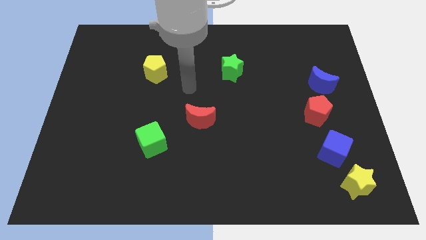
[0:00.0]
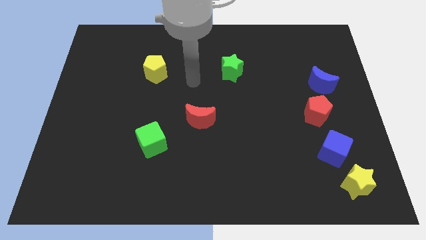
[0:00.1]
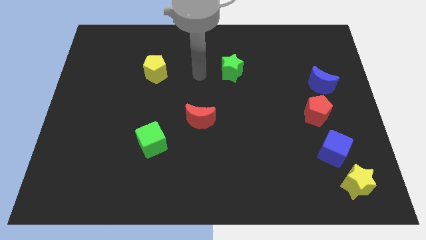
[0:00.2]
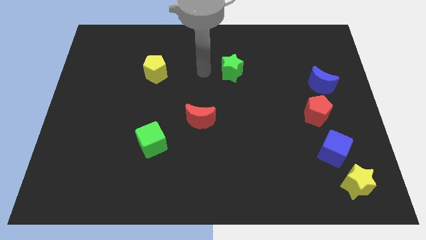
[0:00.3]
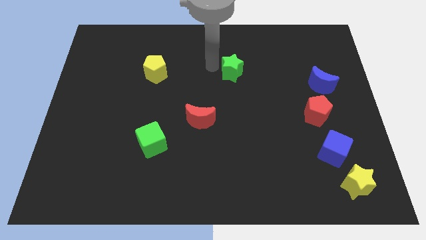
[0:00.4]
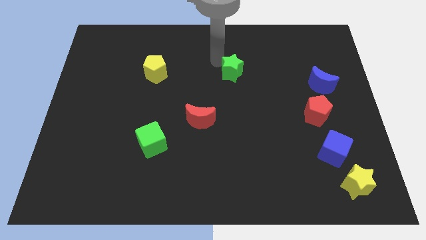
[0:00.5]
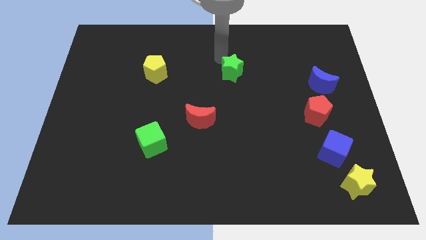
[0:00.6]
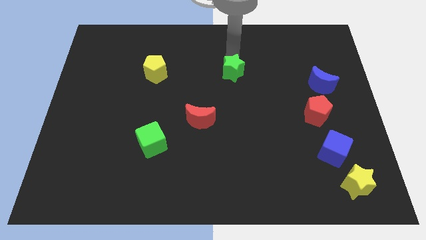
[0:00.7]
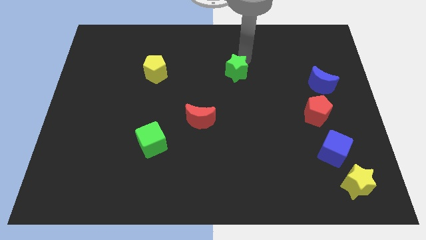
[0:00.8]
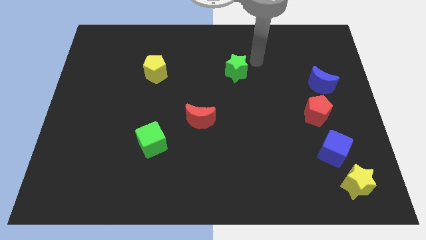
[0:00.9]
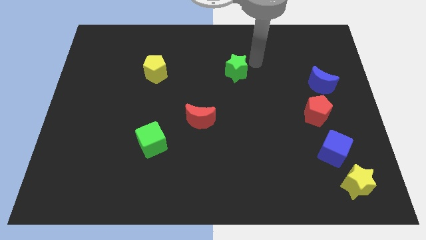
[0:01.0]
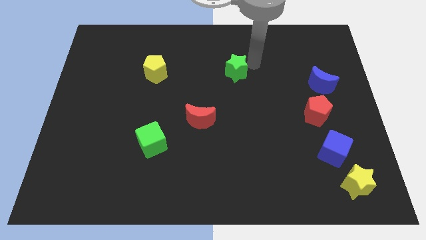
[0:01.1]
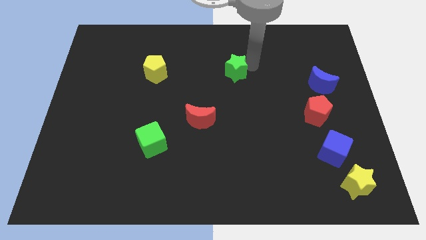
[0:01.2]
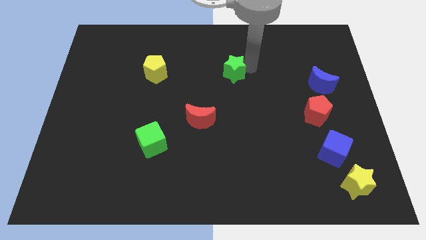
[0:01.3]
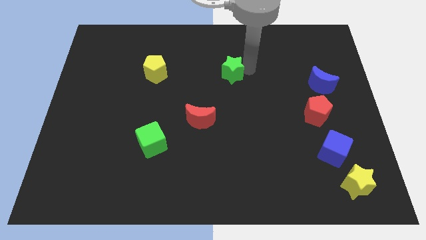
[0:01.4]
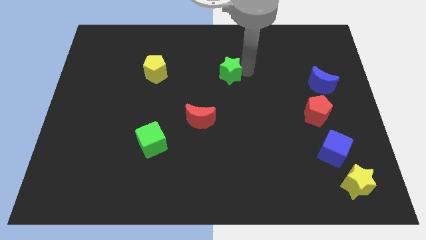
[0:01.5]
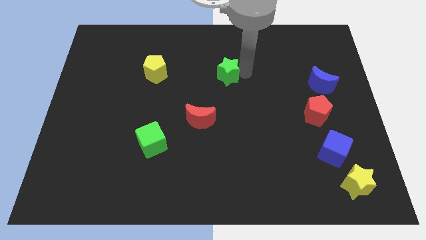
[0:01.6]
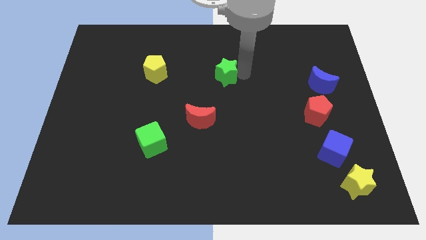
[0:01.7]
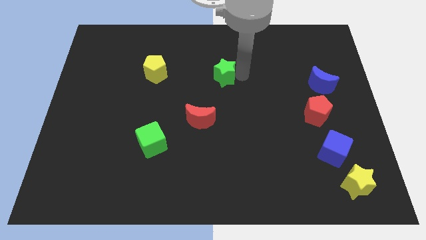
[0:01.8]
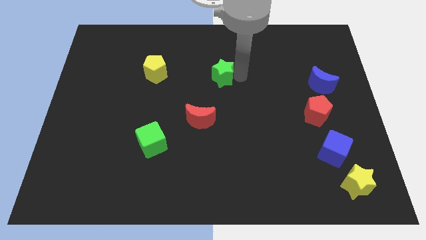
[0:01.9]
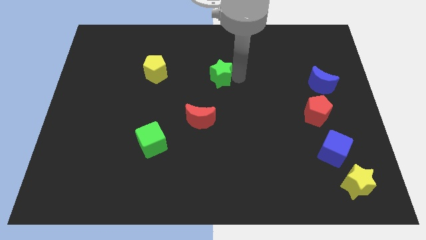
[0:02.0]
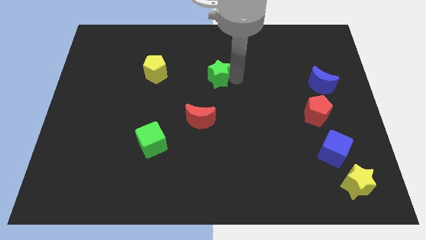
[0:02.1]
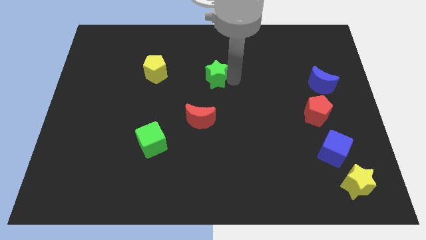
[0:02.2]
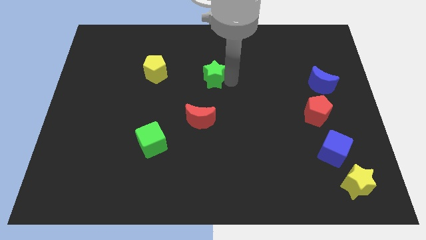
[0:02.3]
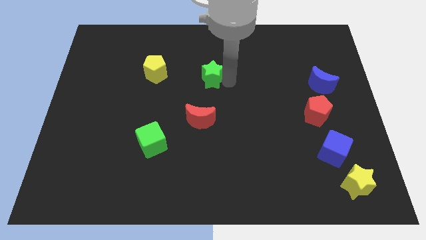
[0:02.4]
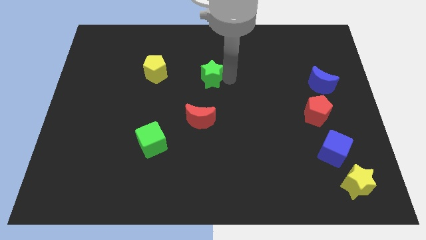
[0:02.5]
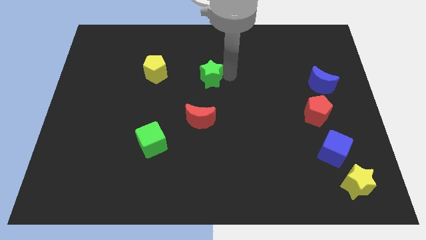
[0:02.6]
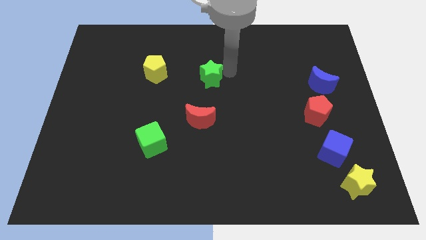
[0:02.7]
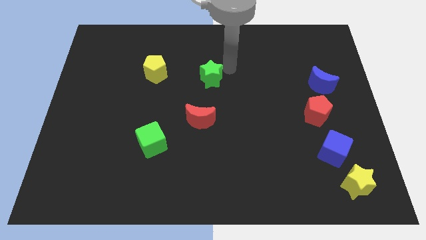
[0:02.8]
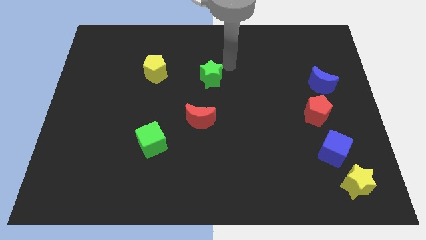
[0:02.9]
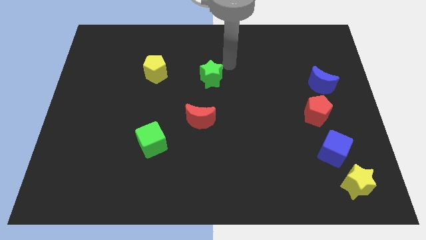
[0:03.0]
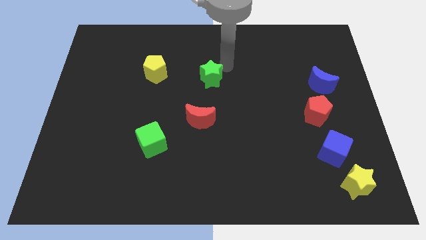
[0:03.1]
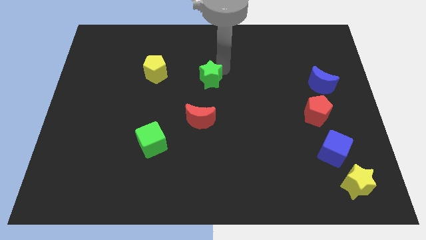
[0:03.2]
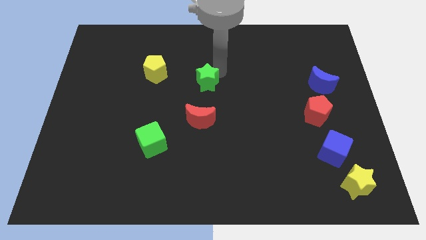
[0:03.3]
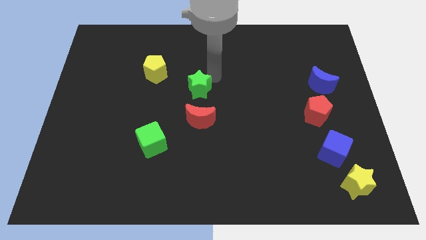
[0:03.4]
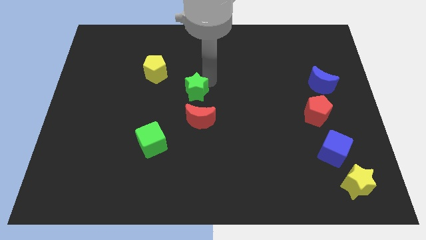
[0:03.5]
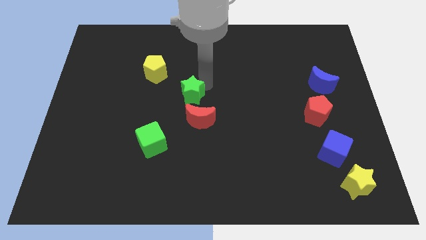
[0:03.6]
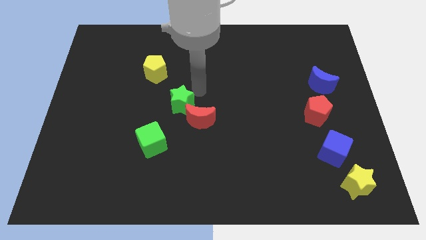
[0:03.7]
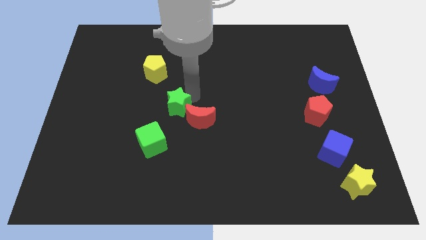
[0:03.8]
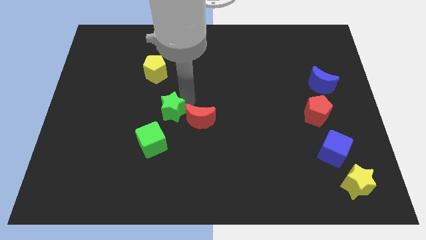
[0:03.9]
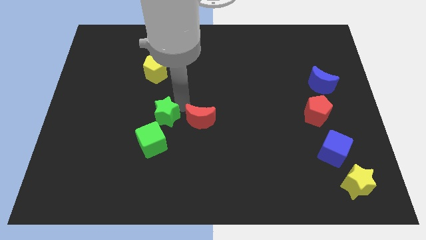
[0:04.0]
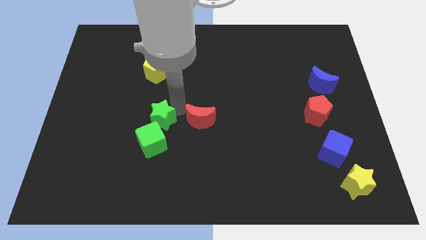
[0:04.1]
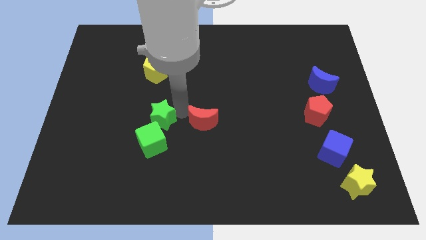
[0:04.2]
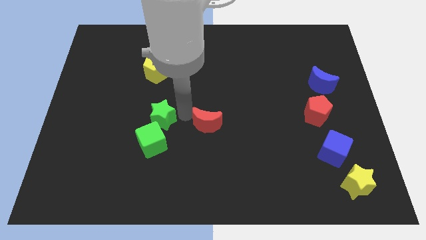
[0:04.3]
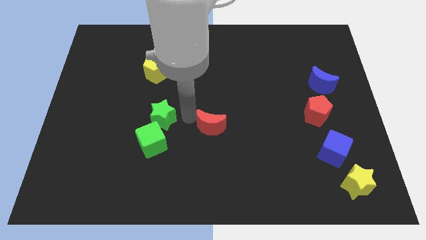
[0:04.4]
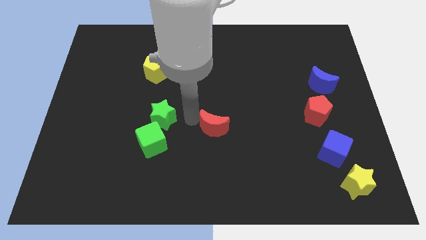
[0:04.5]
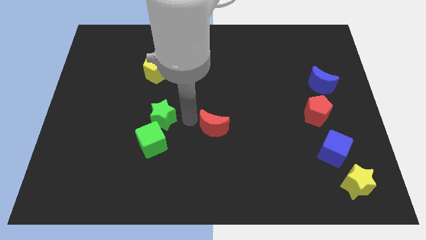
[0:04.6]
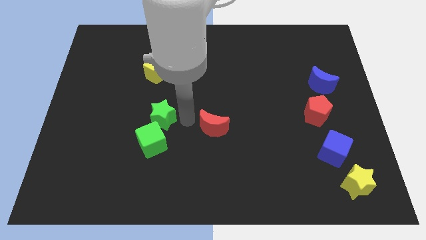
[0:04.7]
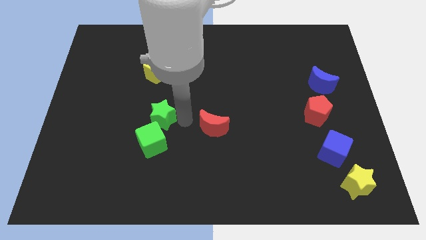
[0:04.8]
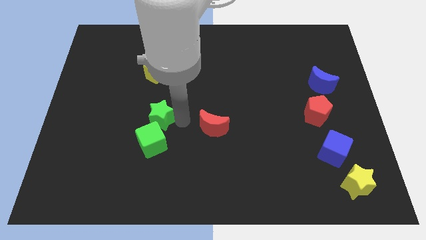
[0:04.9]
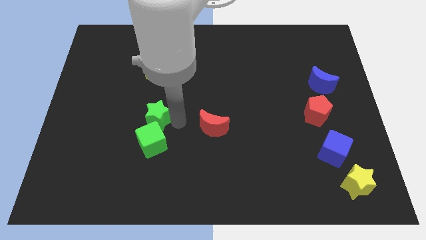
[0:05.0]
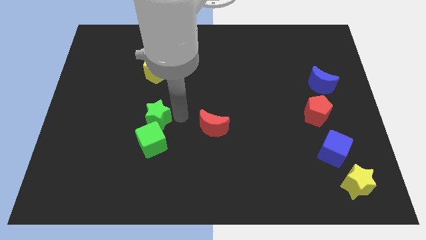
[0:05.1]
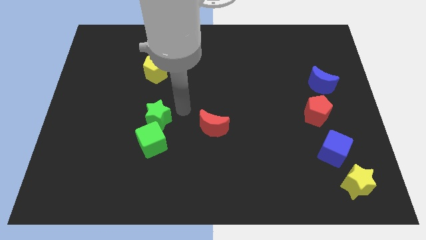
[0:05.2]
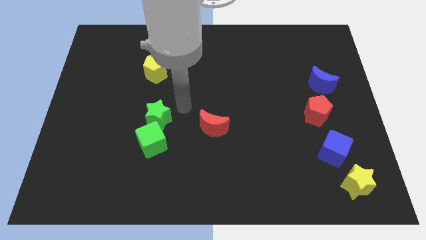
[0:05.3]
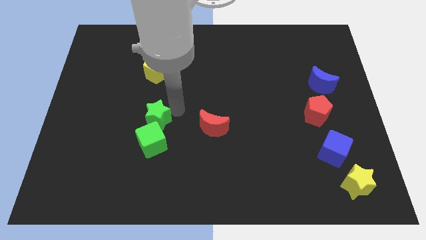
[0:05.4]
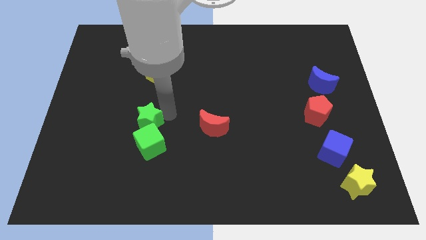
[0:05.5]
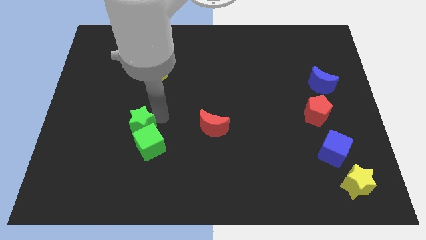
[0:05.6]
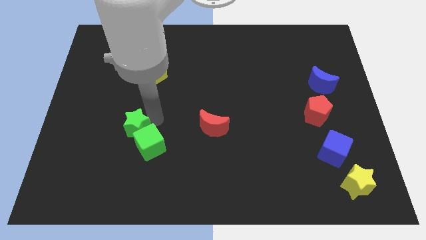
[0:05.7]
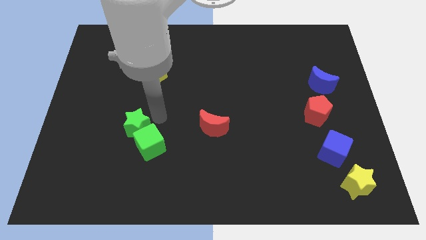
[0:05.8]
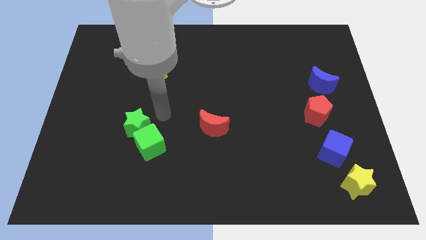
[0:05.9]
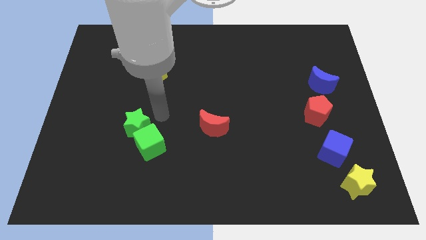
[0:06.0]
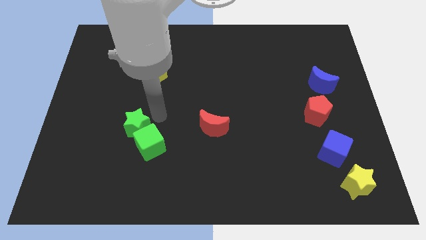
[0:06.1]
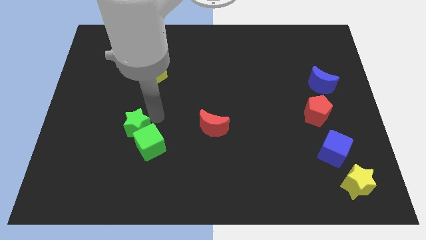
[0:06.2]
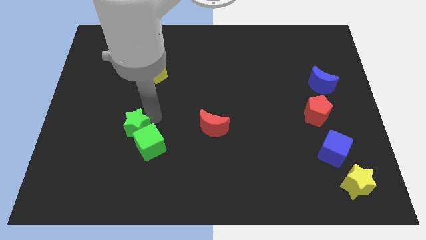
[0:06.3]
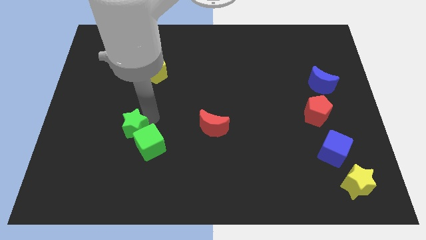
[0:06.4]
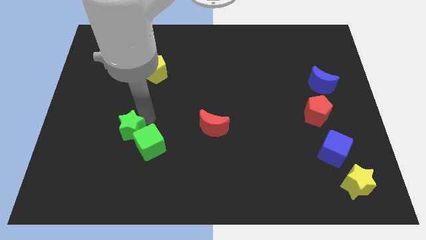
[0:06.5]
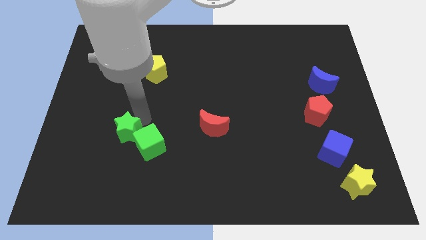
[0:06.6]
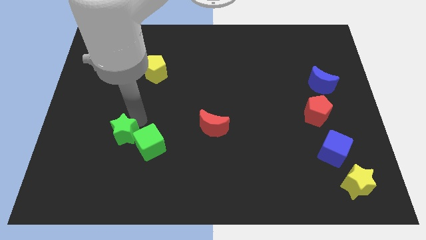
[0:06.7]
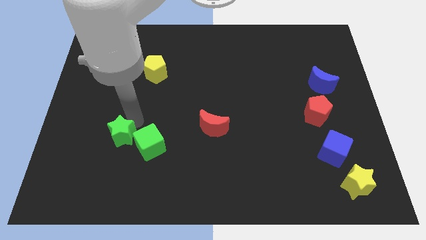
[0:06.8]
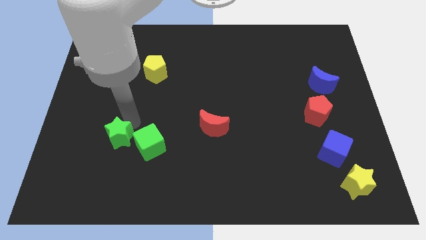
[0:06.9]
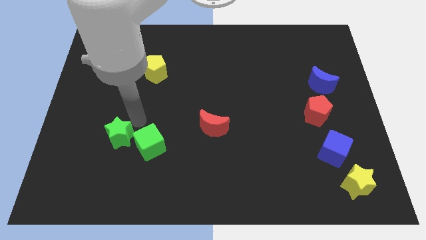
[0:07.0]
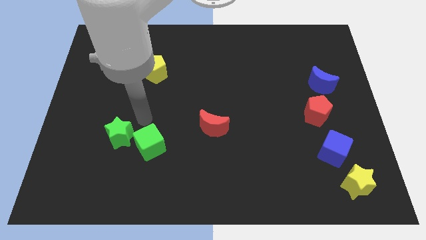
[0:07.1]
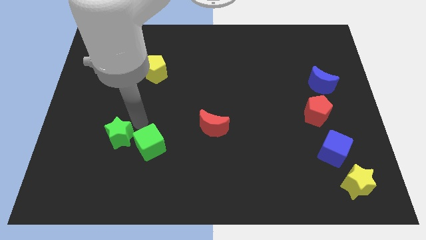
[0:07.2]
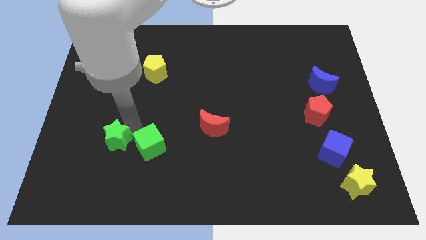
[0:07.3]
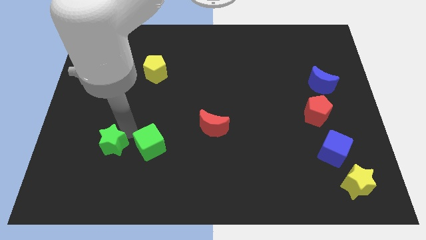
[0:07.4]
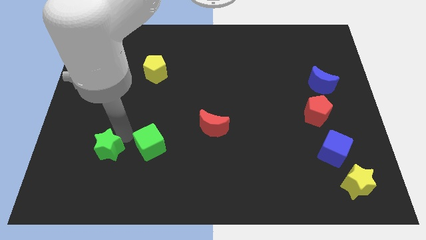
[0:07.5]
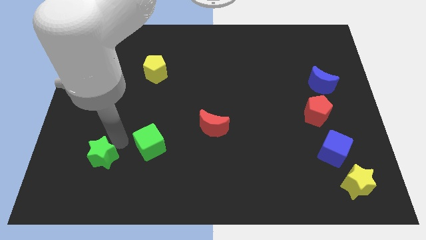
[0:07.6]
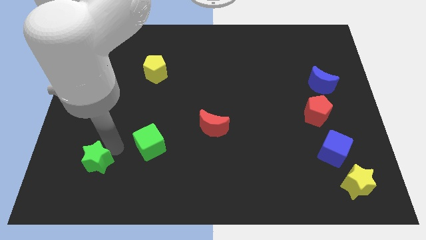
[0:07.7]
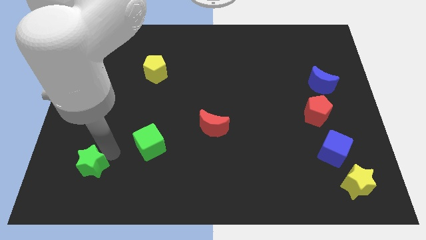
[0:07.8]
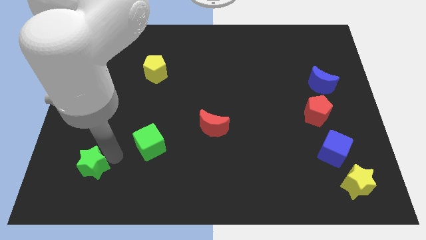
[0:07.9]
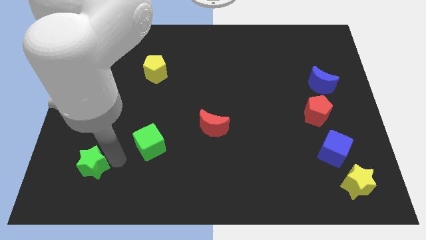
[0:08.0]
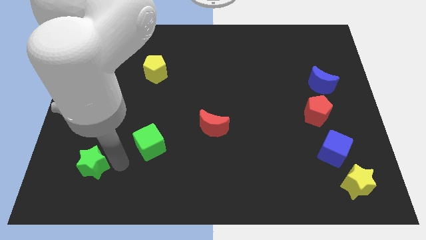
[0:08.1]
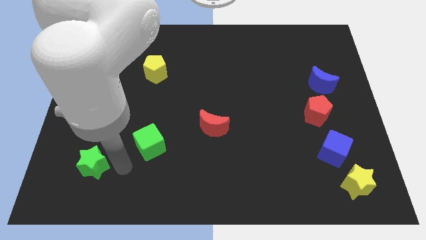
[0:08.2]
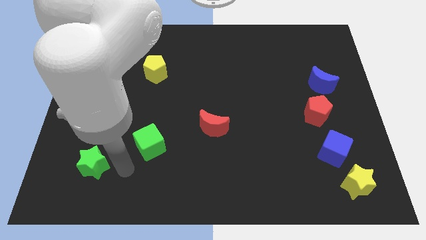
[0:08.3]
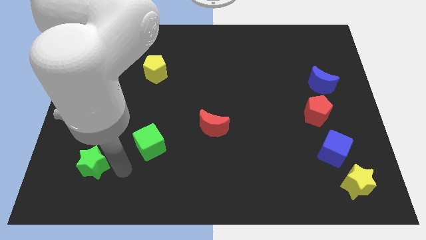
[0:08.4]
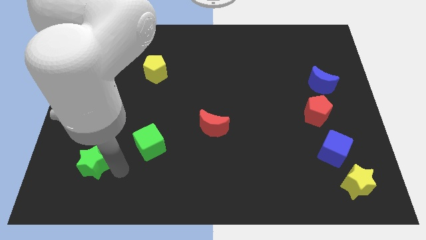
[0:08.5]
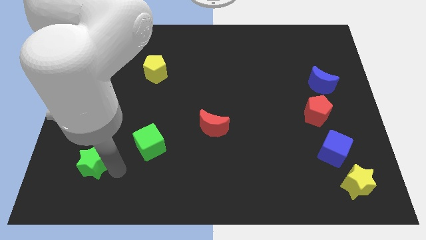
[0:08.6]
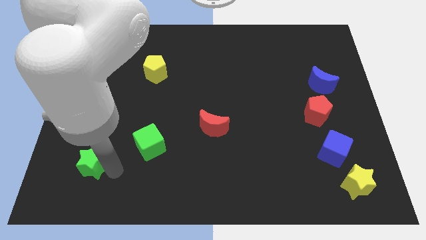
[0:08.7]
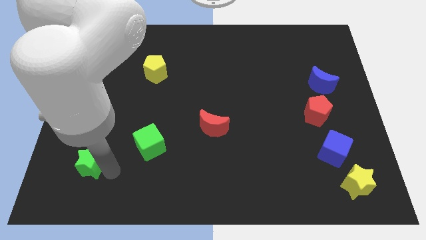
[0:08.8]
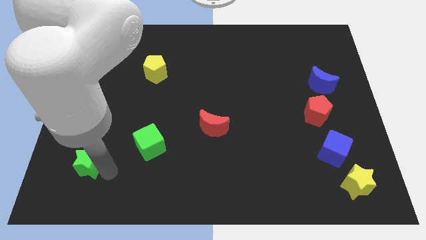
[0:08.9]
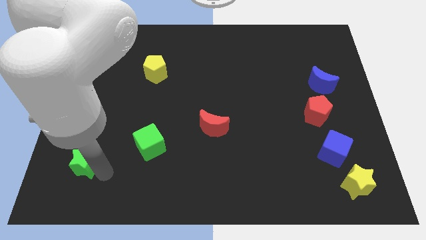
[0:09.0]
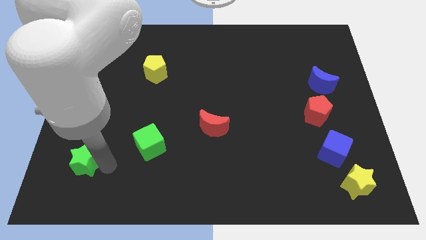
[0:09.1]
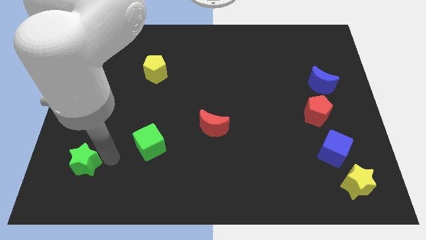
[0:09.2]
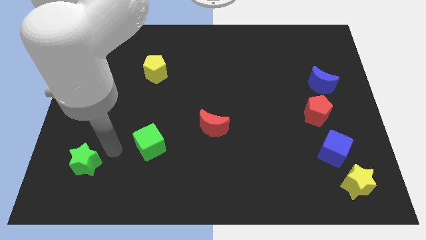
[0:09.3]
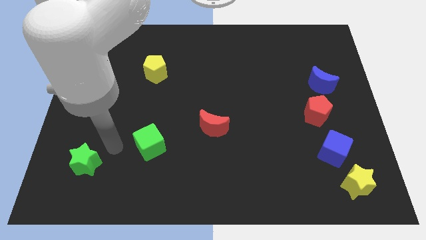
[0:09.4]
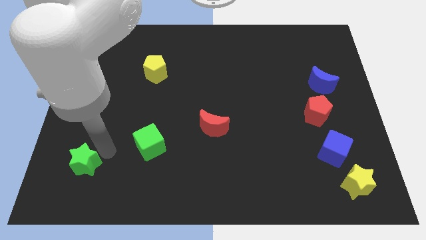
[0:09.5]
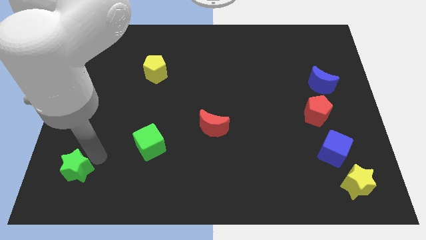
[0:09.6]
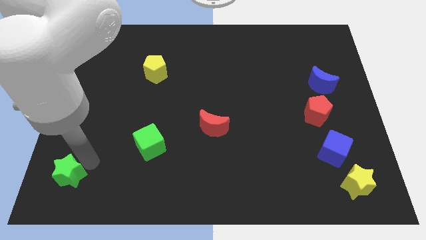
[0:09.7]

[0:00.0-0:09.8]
slide the green star to the bottom left
